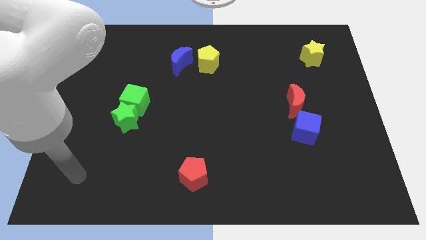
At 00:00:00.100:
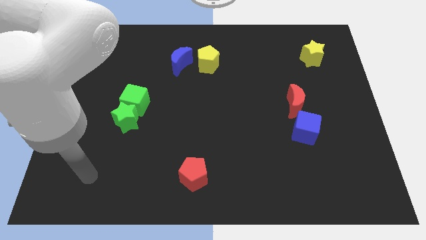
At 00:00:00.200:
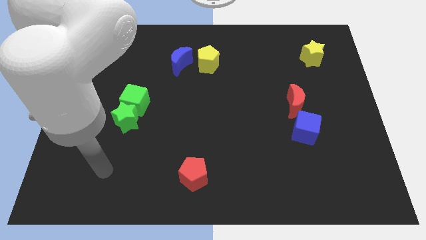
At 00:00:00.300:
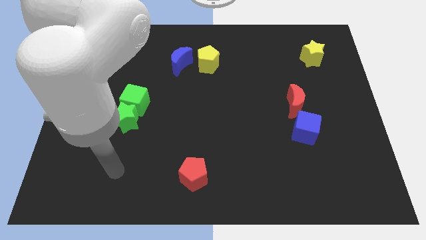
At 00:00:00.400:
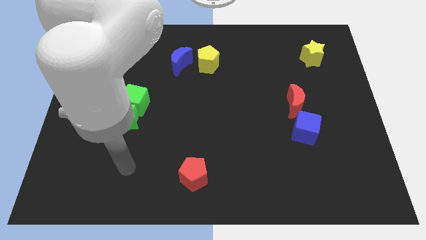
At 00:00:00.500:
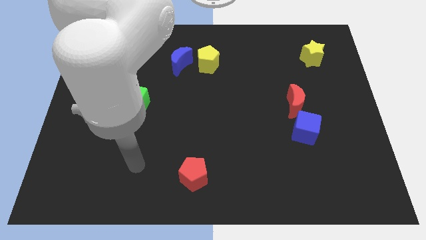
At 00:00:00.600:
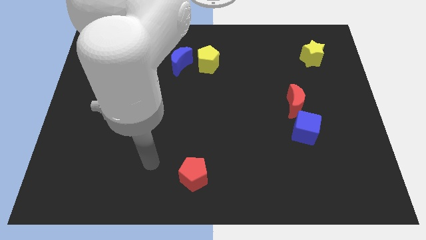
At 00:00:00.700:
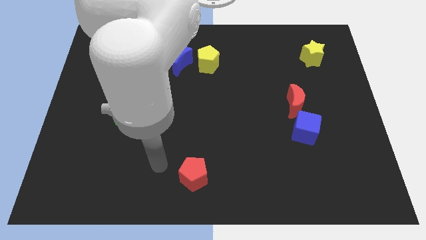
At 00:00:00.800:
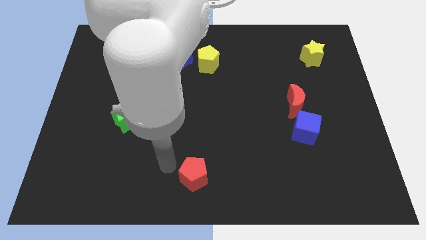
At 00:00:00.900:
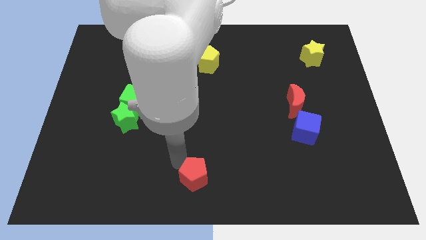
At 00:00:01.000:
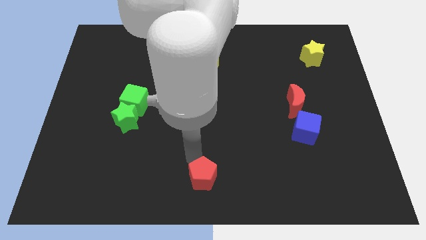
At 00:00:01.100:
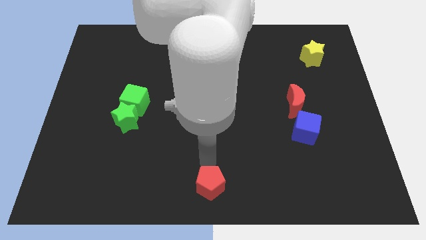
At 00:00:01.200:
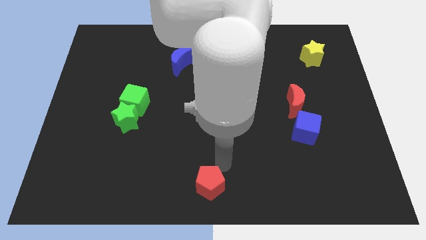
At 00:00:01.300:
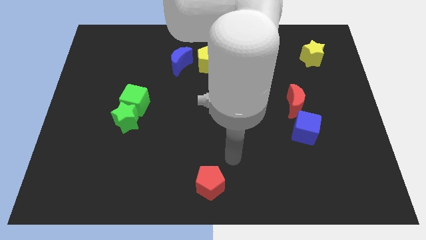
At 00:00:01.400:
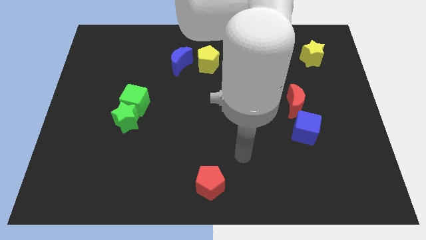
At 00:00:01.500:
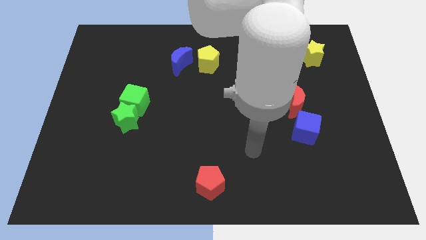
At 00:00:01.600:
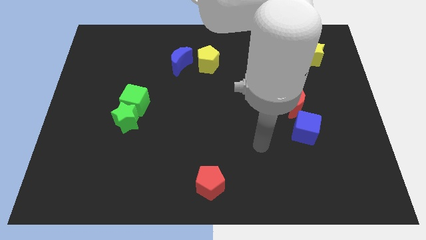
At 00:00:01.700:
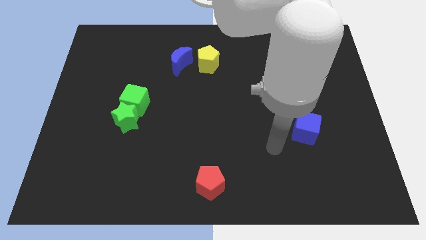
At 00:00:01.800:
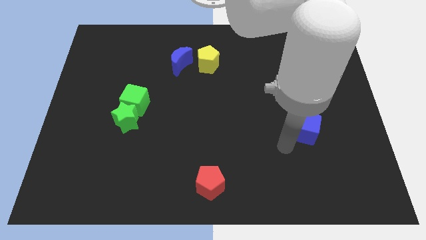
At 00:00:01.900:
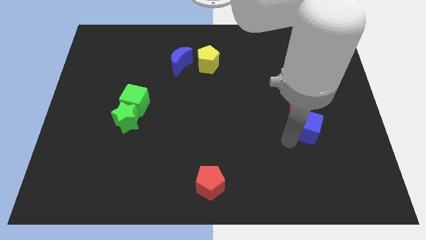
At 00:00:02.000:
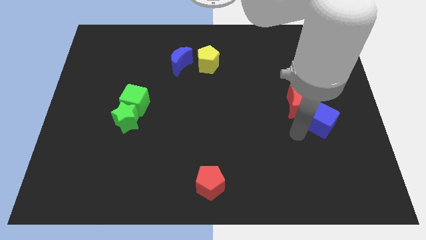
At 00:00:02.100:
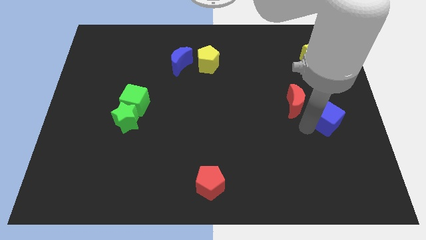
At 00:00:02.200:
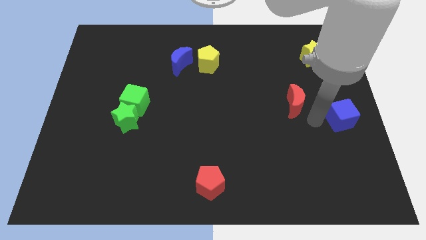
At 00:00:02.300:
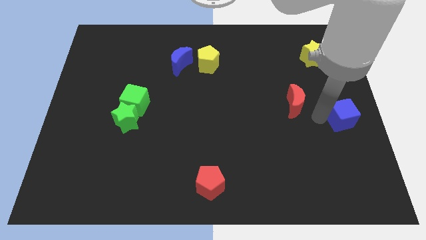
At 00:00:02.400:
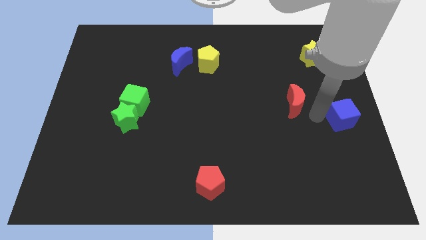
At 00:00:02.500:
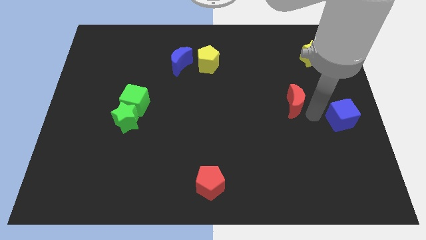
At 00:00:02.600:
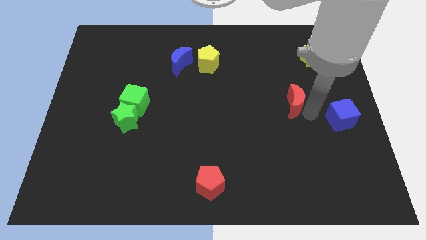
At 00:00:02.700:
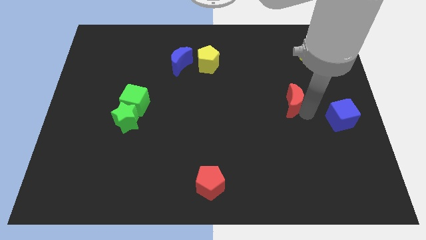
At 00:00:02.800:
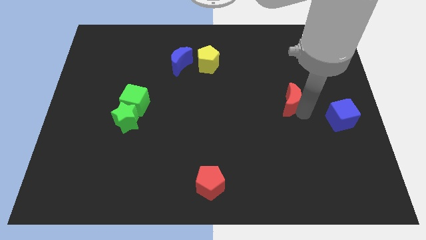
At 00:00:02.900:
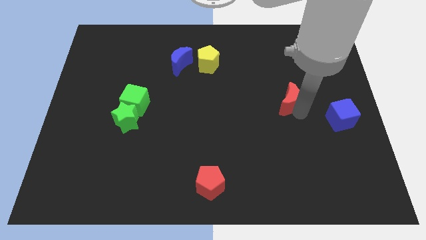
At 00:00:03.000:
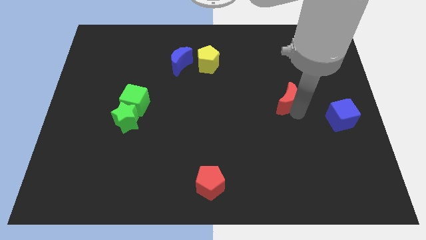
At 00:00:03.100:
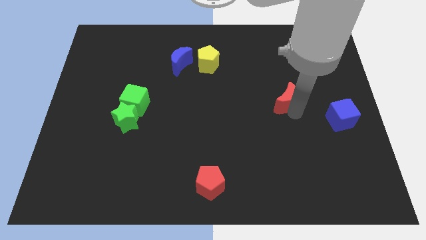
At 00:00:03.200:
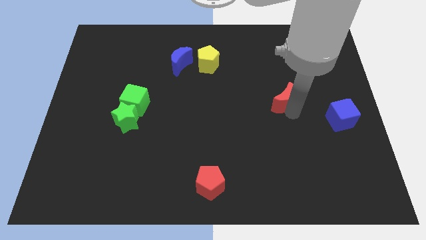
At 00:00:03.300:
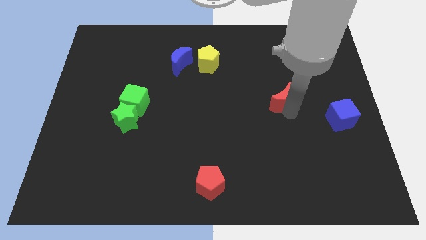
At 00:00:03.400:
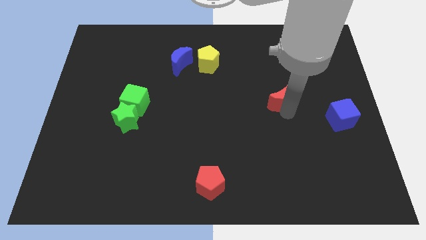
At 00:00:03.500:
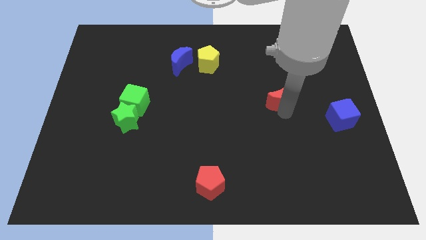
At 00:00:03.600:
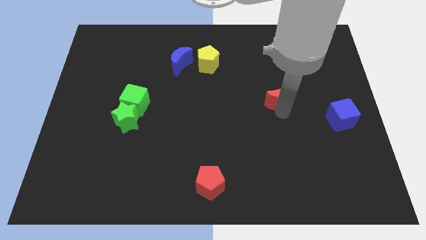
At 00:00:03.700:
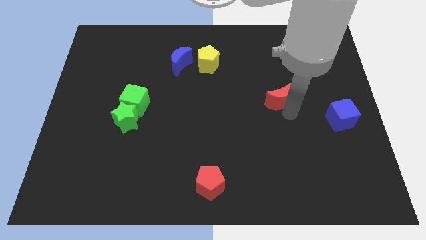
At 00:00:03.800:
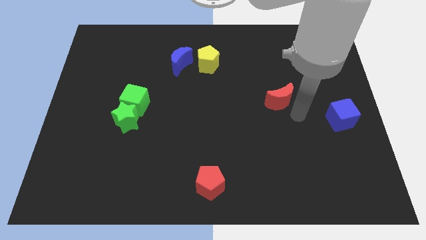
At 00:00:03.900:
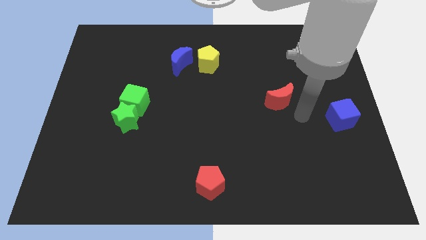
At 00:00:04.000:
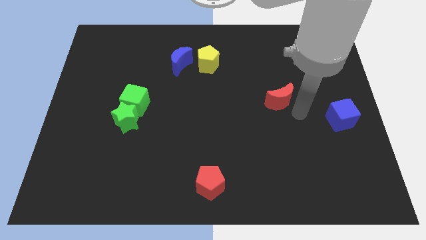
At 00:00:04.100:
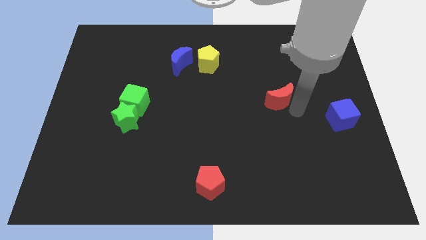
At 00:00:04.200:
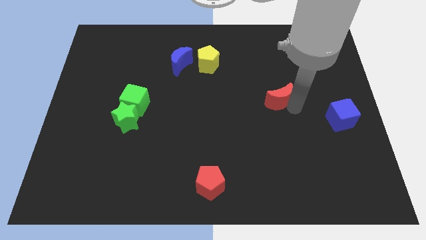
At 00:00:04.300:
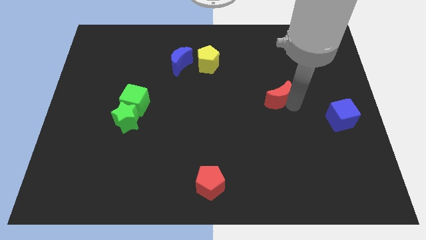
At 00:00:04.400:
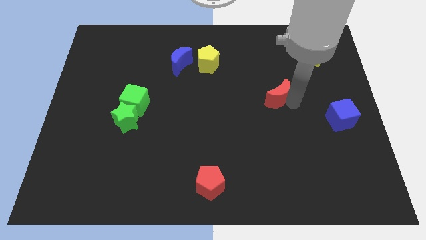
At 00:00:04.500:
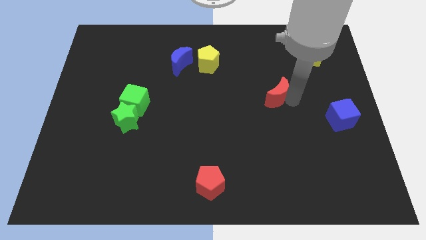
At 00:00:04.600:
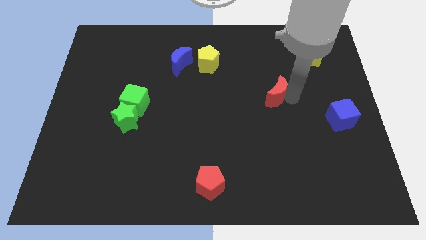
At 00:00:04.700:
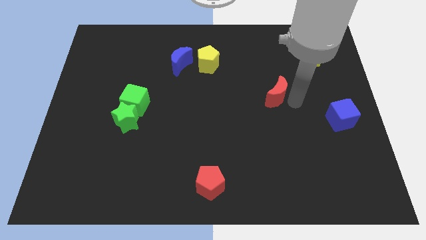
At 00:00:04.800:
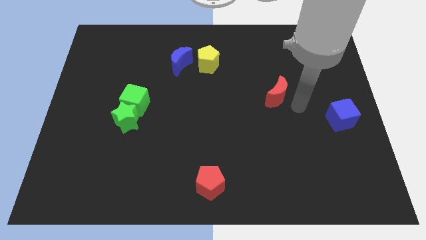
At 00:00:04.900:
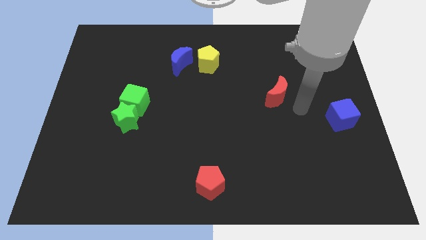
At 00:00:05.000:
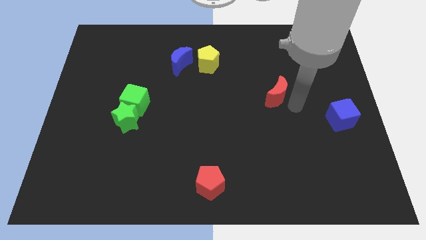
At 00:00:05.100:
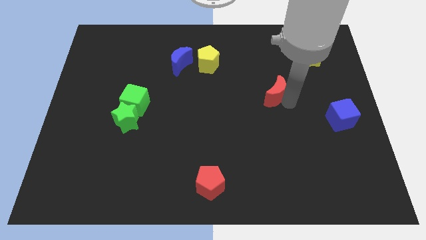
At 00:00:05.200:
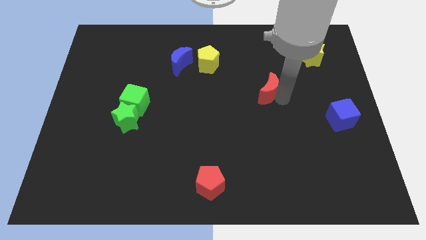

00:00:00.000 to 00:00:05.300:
push the red moon somewhat upwards and then left

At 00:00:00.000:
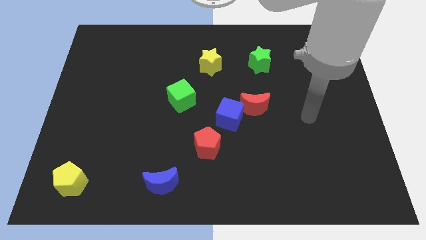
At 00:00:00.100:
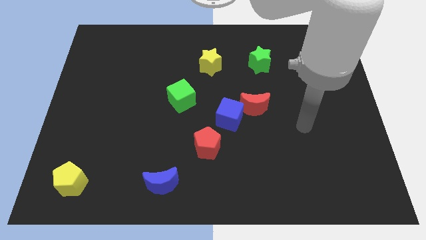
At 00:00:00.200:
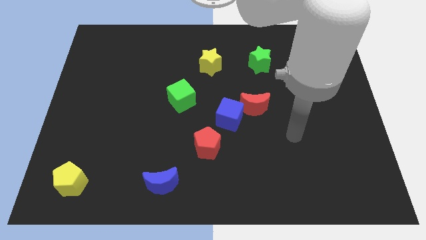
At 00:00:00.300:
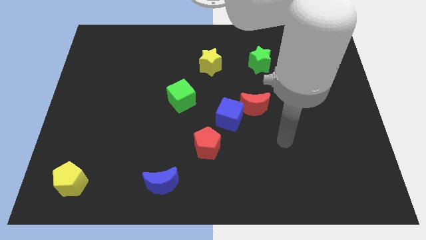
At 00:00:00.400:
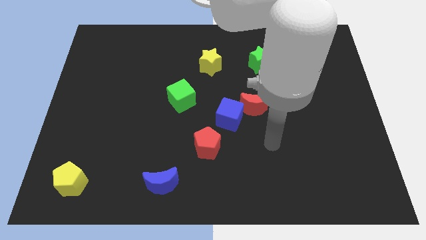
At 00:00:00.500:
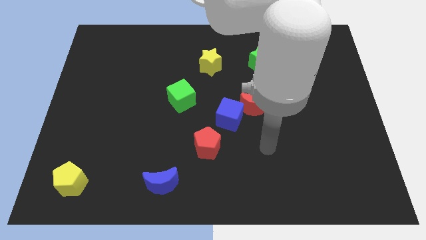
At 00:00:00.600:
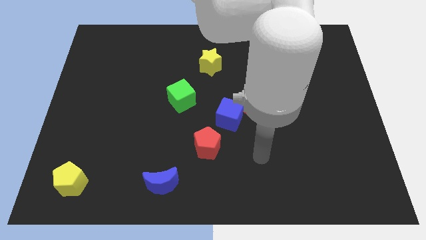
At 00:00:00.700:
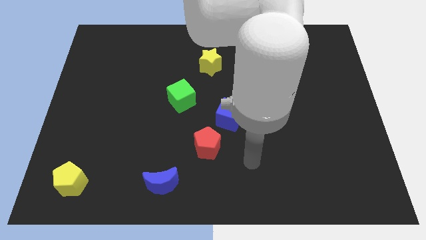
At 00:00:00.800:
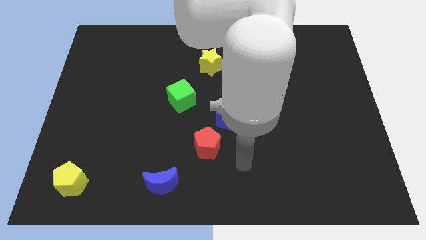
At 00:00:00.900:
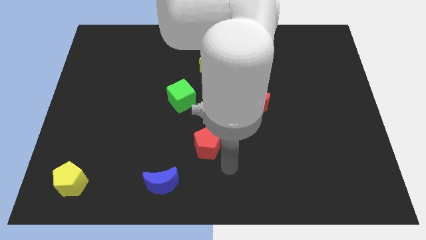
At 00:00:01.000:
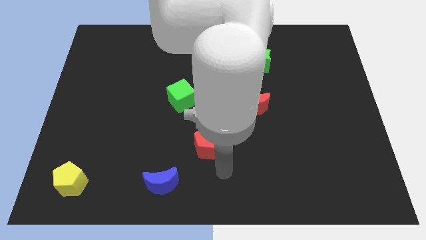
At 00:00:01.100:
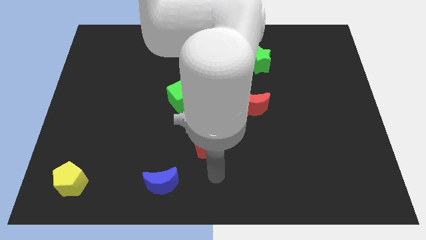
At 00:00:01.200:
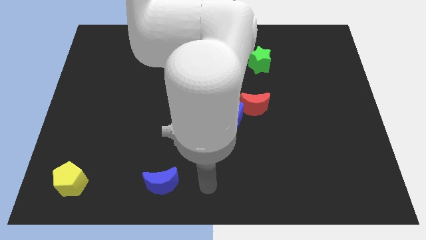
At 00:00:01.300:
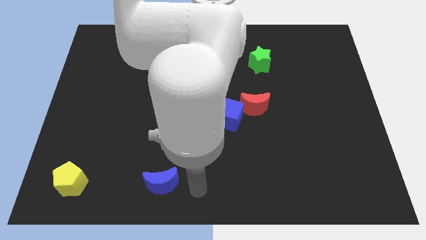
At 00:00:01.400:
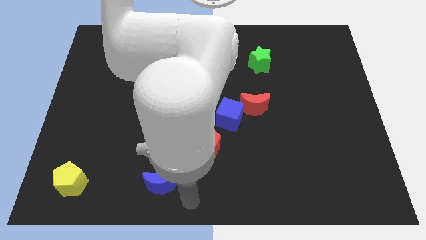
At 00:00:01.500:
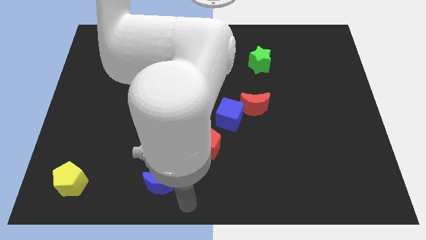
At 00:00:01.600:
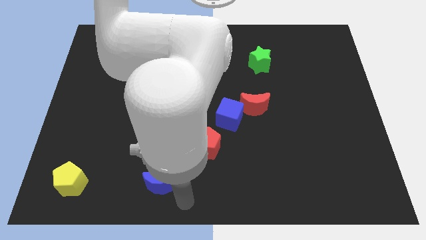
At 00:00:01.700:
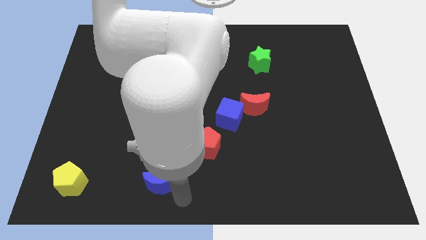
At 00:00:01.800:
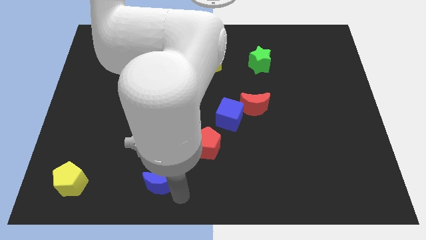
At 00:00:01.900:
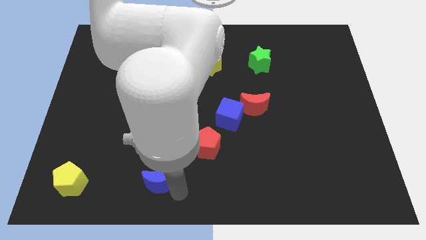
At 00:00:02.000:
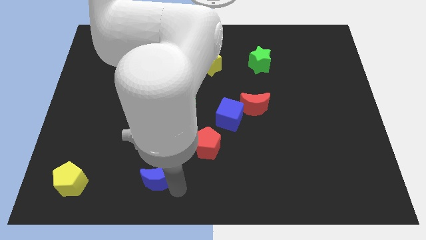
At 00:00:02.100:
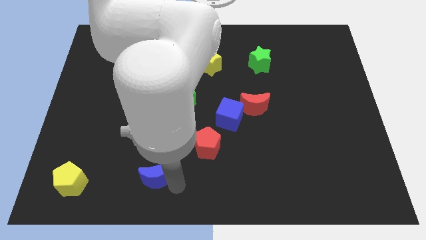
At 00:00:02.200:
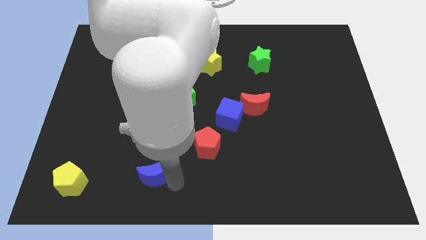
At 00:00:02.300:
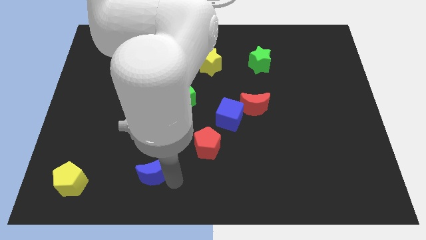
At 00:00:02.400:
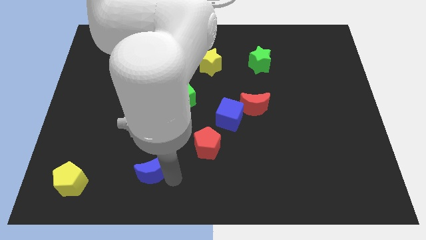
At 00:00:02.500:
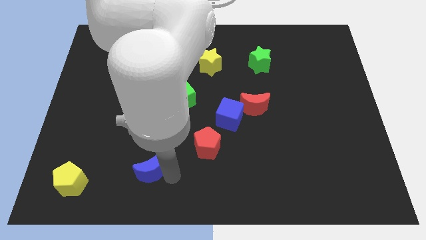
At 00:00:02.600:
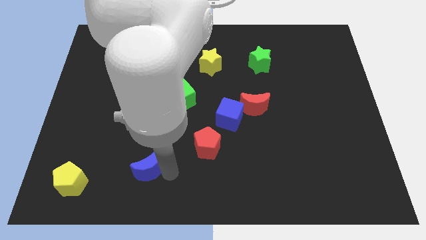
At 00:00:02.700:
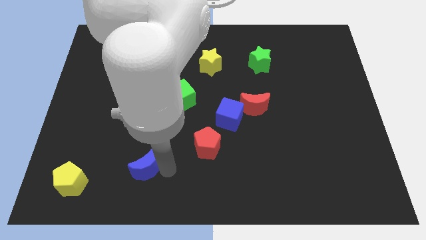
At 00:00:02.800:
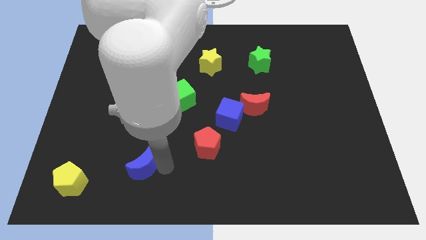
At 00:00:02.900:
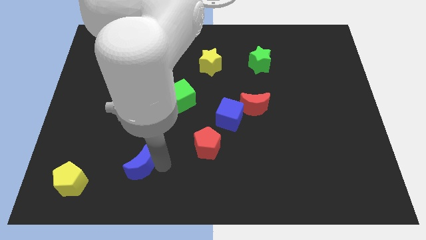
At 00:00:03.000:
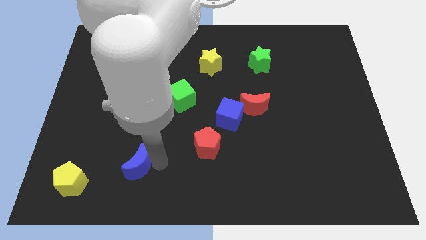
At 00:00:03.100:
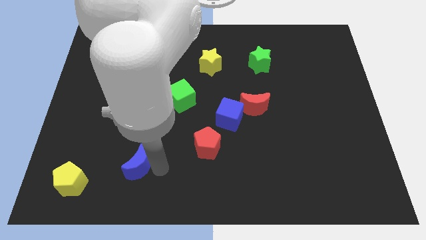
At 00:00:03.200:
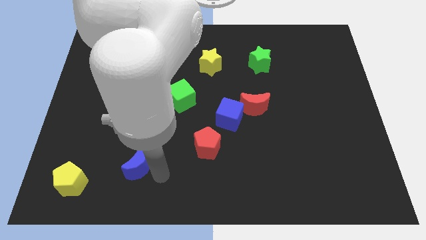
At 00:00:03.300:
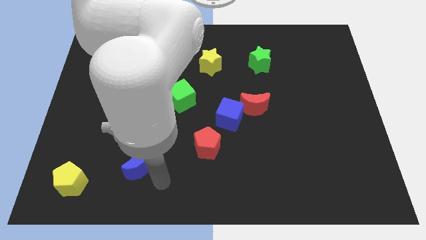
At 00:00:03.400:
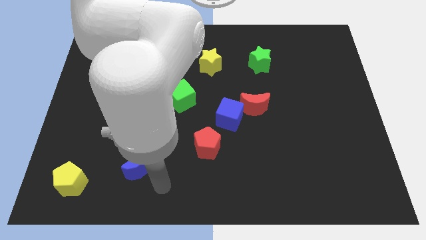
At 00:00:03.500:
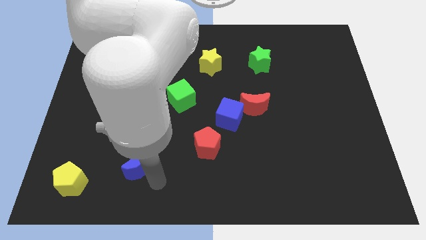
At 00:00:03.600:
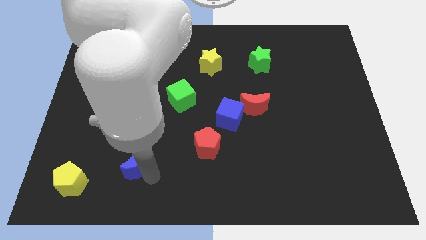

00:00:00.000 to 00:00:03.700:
move the blue moon upwards and left diagonally a little bit
